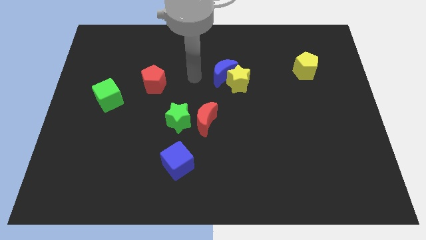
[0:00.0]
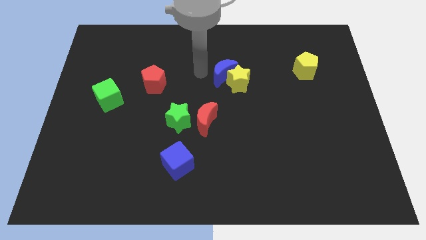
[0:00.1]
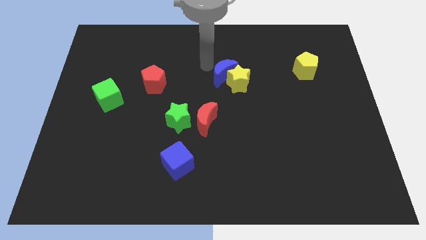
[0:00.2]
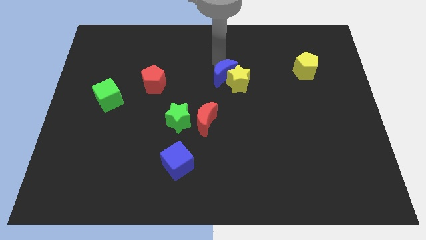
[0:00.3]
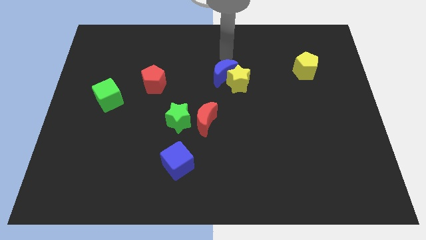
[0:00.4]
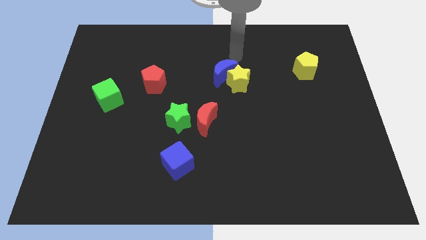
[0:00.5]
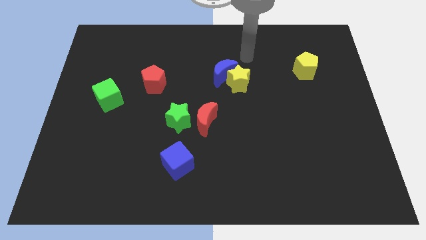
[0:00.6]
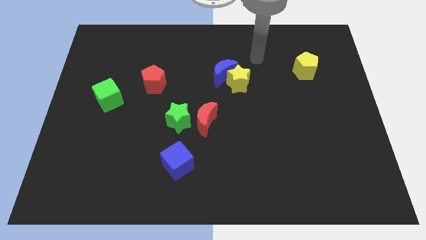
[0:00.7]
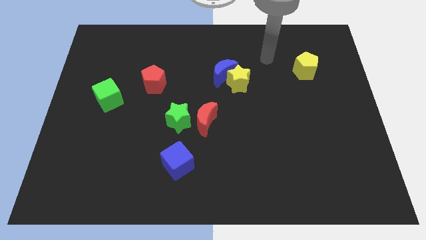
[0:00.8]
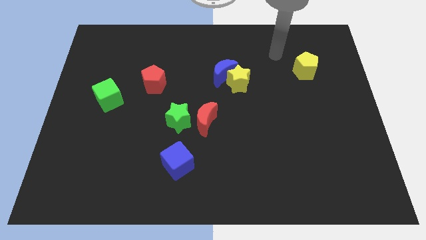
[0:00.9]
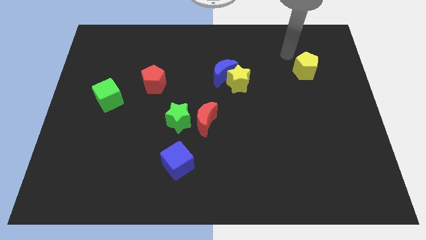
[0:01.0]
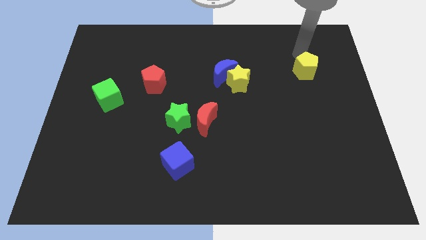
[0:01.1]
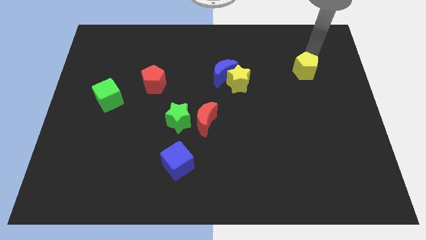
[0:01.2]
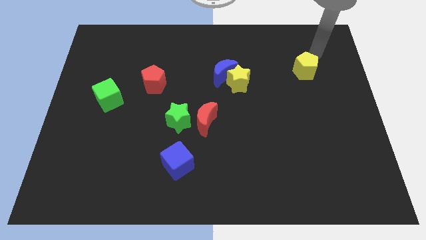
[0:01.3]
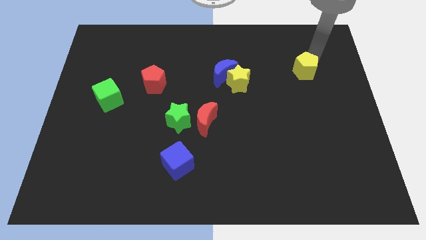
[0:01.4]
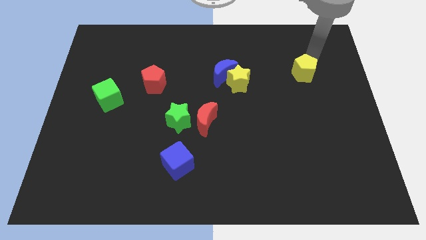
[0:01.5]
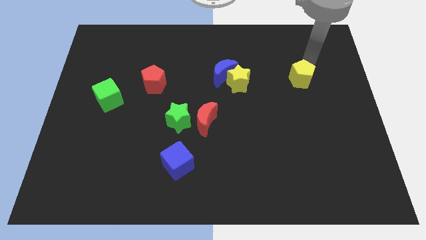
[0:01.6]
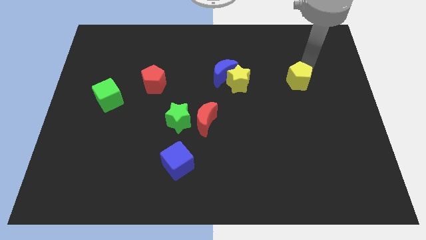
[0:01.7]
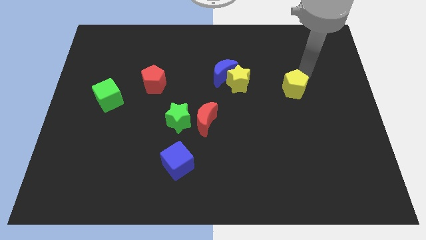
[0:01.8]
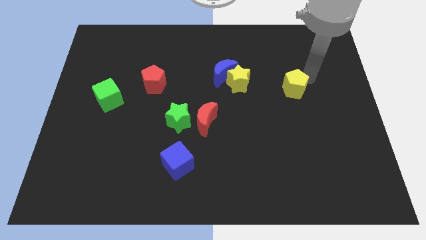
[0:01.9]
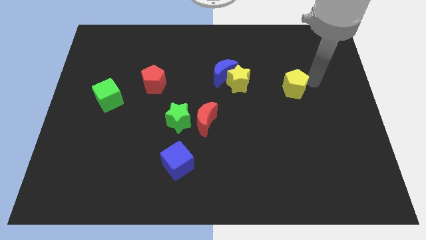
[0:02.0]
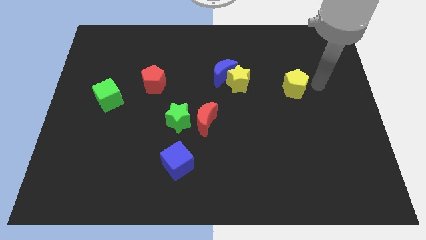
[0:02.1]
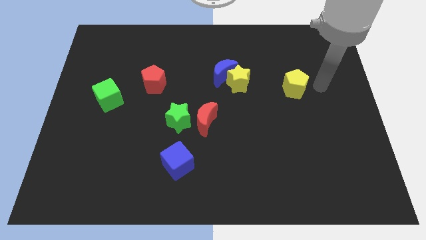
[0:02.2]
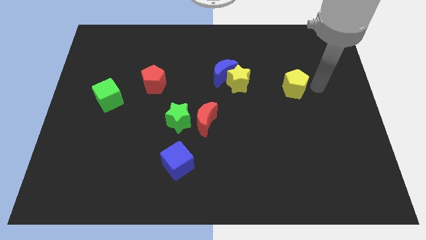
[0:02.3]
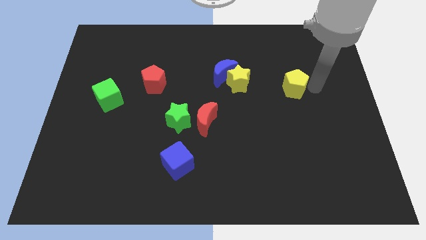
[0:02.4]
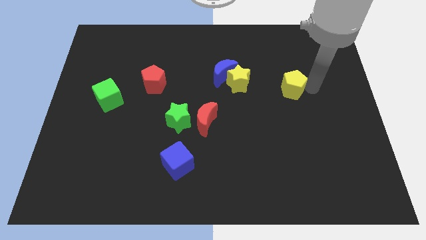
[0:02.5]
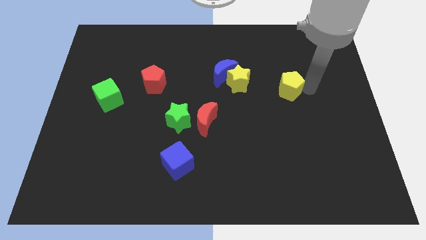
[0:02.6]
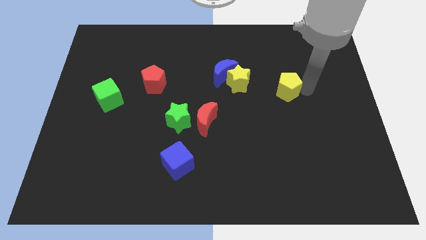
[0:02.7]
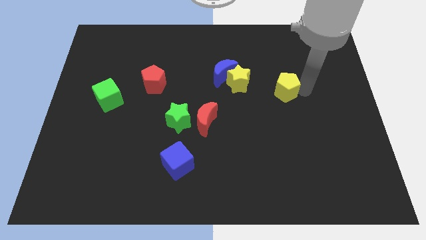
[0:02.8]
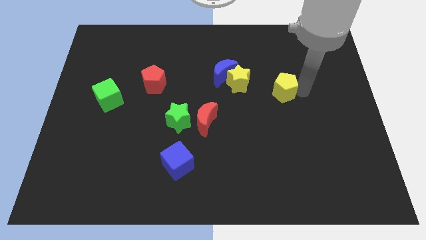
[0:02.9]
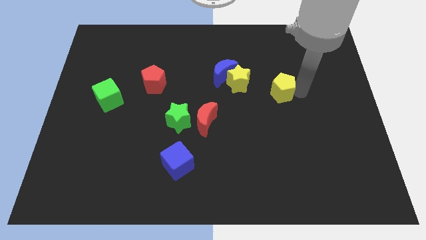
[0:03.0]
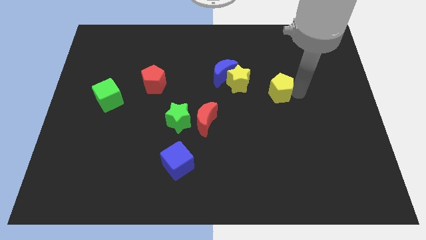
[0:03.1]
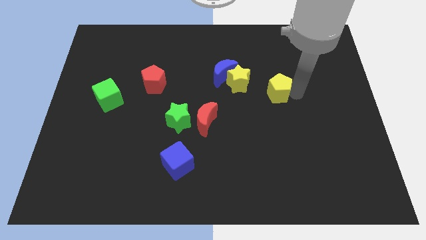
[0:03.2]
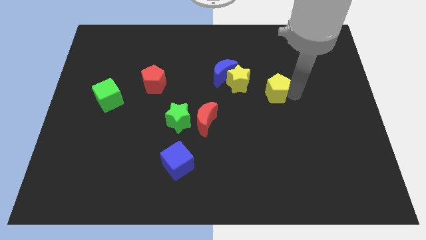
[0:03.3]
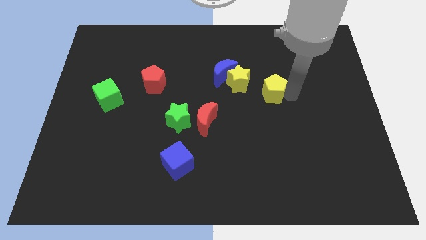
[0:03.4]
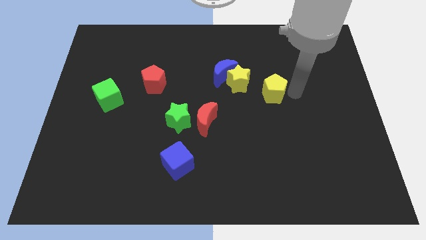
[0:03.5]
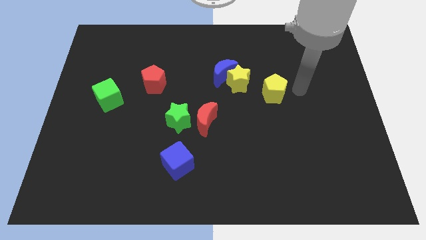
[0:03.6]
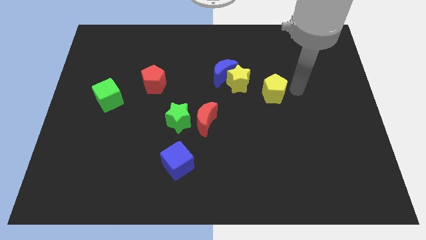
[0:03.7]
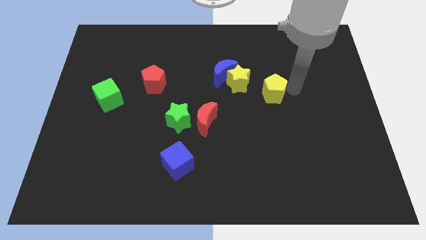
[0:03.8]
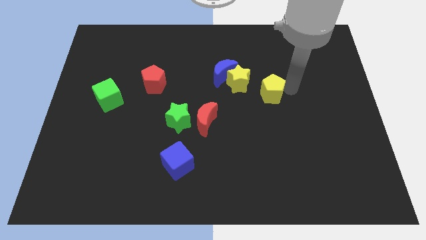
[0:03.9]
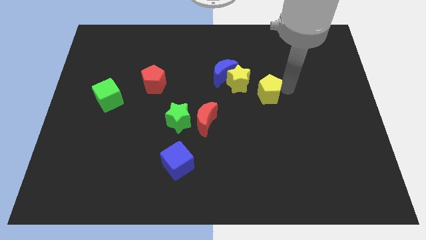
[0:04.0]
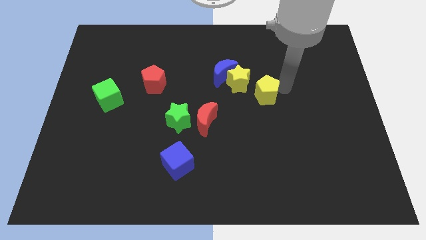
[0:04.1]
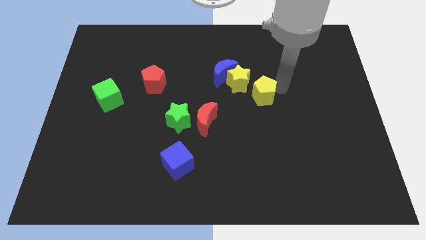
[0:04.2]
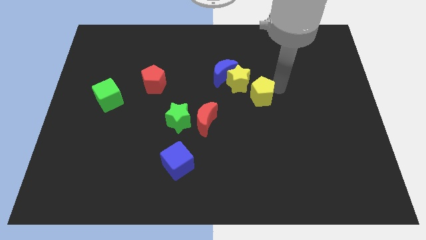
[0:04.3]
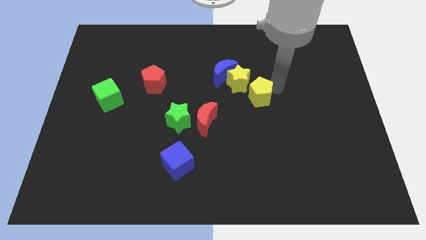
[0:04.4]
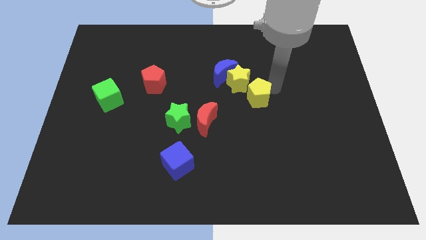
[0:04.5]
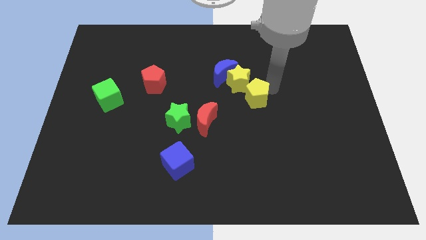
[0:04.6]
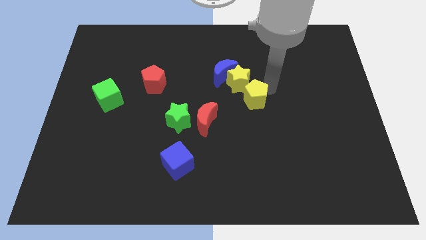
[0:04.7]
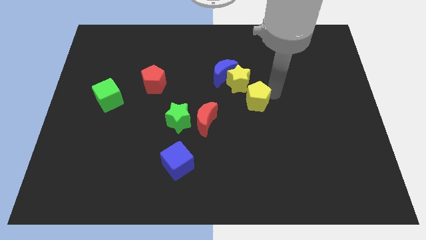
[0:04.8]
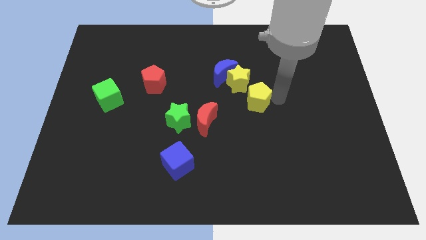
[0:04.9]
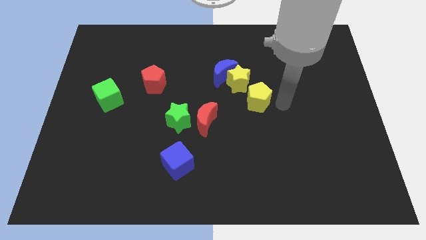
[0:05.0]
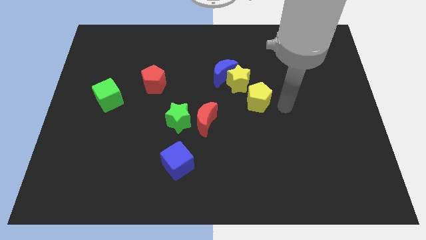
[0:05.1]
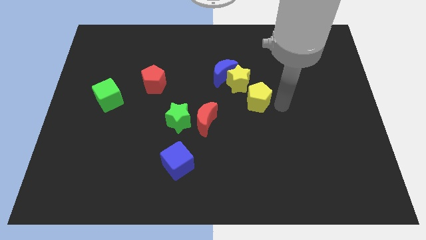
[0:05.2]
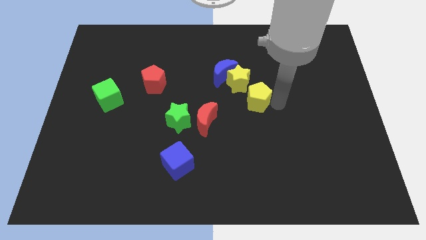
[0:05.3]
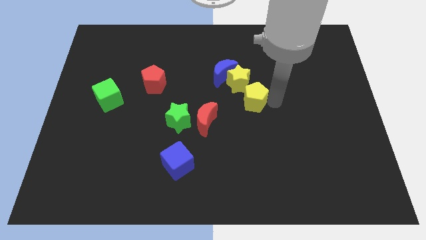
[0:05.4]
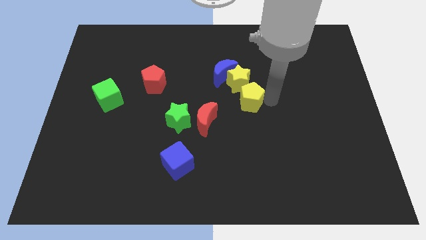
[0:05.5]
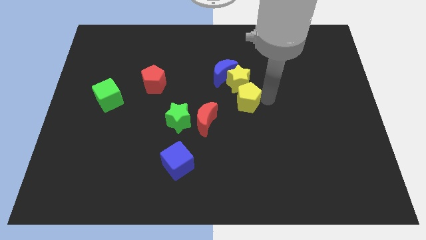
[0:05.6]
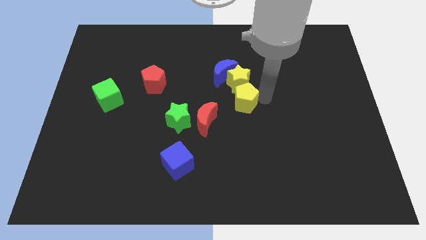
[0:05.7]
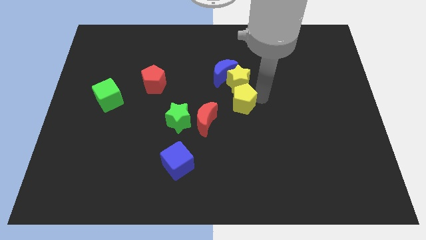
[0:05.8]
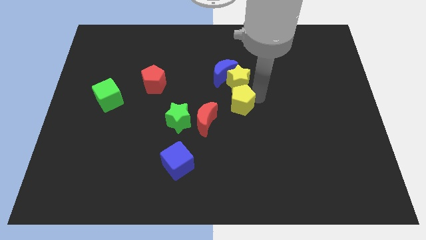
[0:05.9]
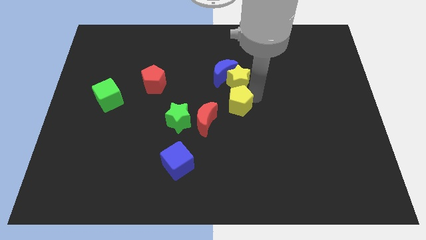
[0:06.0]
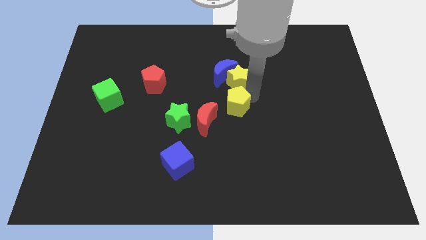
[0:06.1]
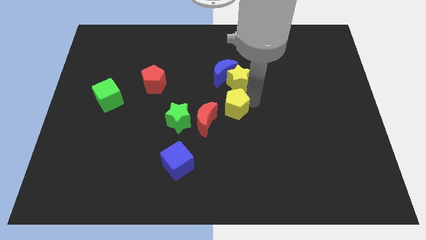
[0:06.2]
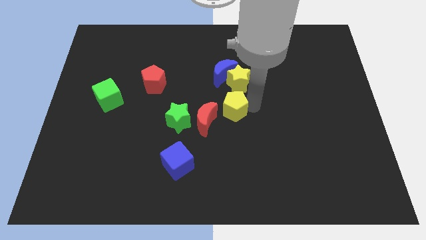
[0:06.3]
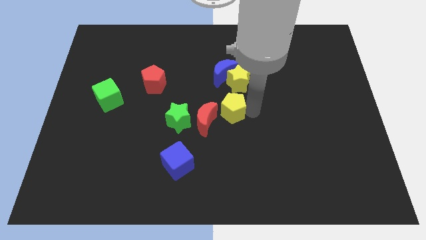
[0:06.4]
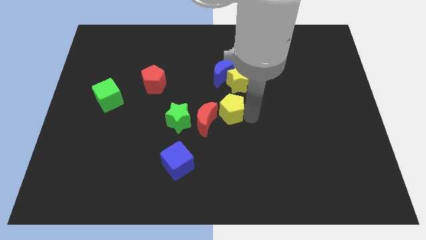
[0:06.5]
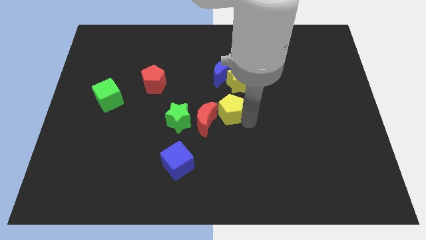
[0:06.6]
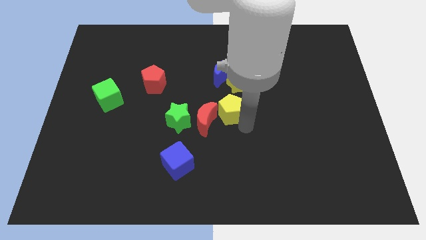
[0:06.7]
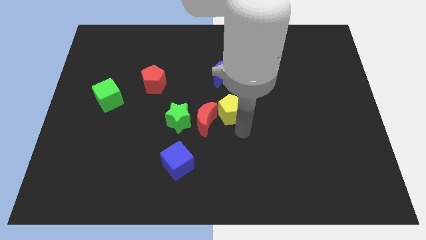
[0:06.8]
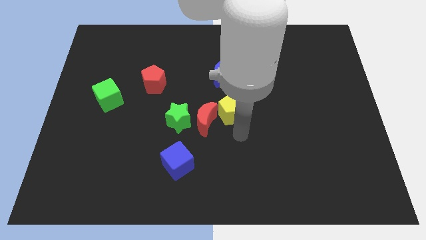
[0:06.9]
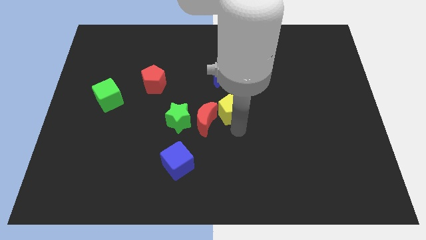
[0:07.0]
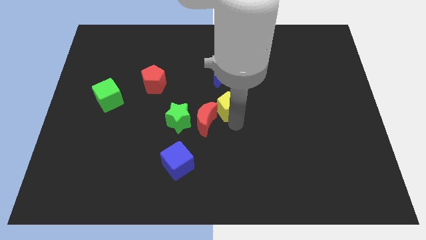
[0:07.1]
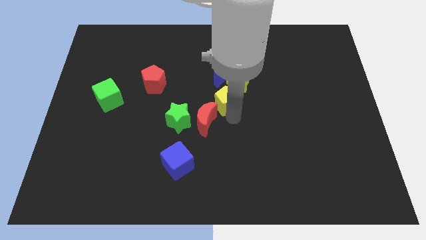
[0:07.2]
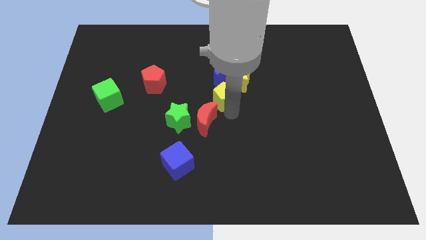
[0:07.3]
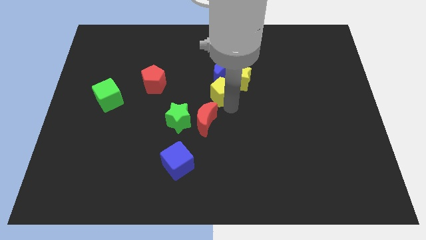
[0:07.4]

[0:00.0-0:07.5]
put the yellow pentagon diagonally down and to the left of the blue moon
